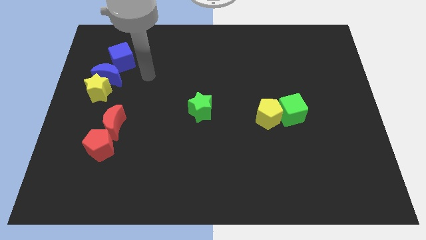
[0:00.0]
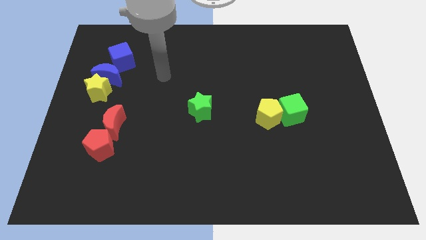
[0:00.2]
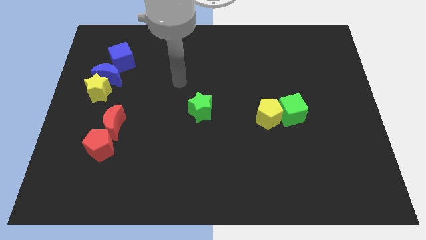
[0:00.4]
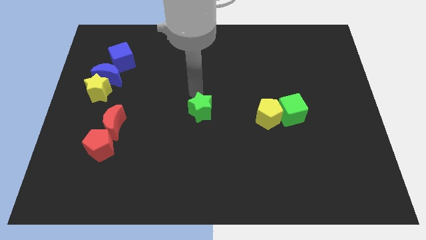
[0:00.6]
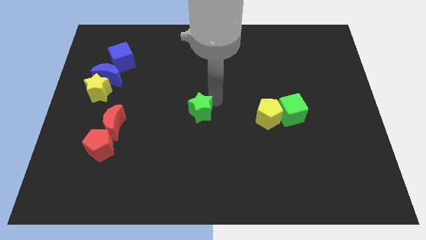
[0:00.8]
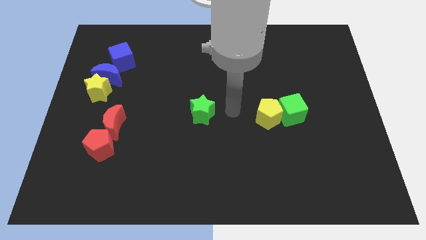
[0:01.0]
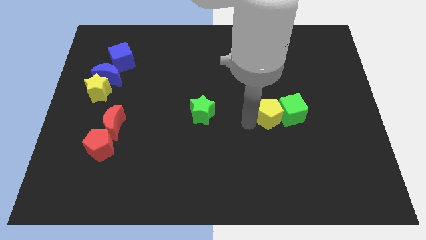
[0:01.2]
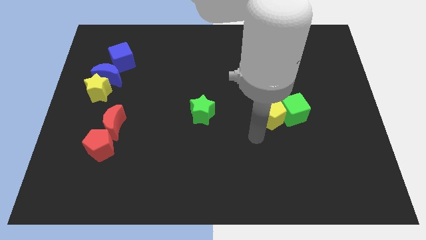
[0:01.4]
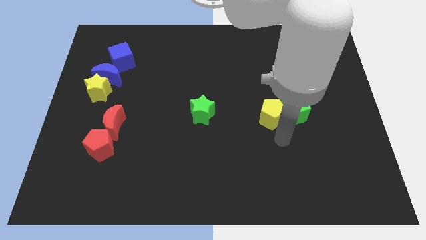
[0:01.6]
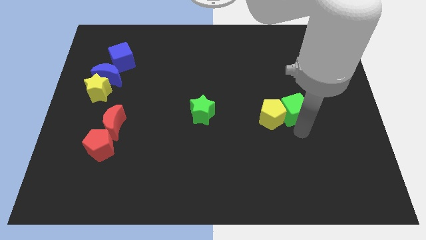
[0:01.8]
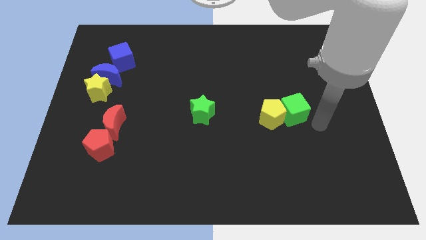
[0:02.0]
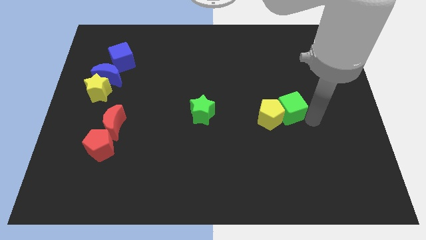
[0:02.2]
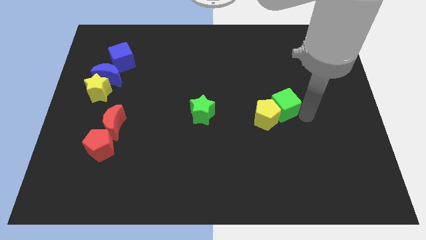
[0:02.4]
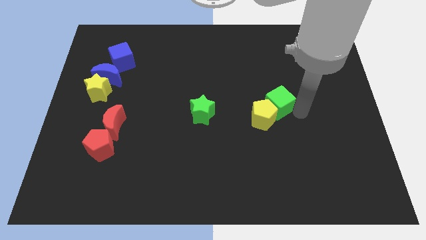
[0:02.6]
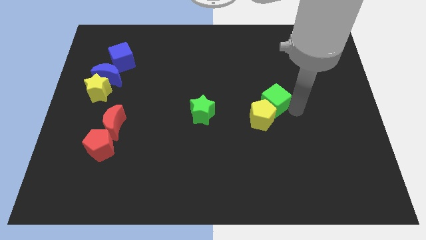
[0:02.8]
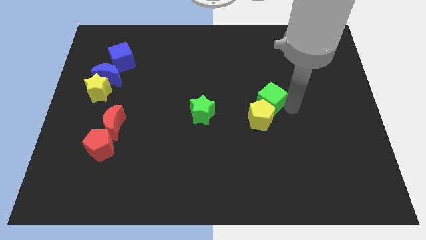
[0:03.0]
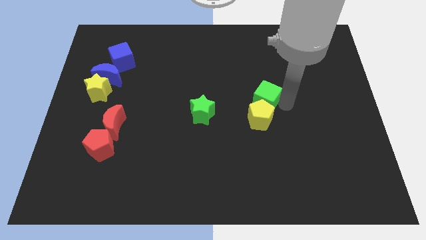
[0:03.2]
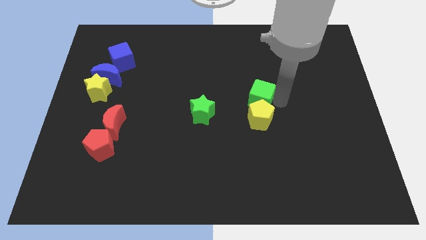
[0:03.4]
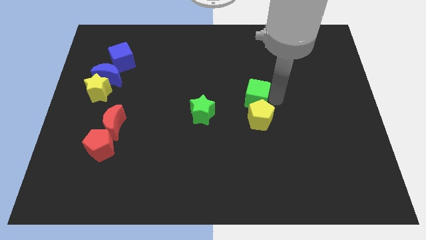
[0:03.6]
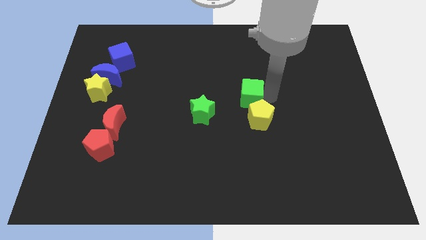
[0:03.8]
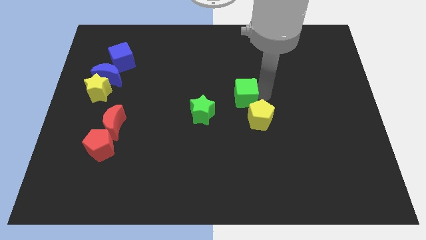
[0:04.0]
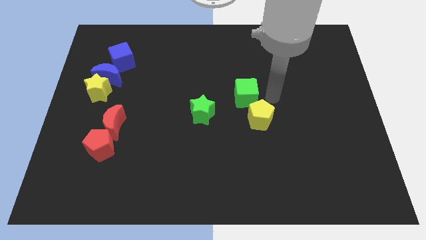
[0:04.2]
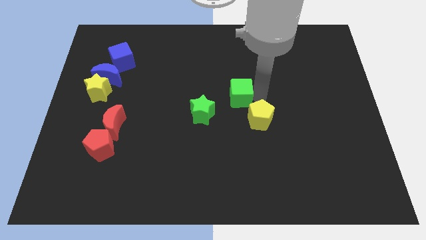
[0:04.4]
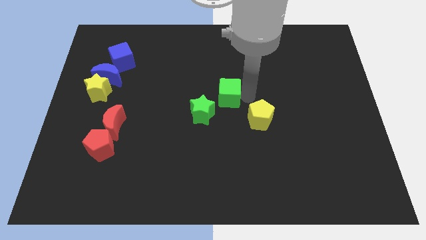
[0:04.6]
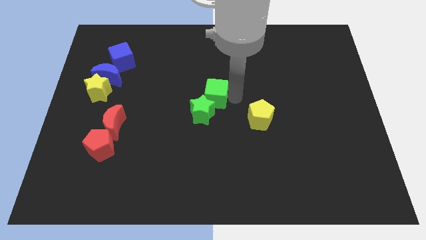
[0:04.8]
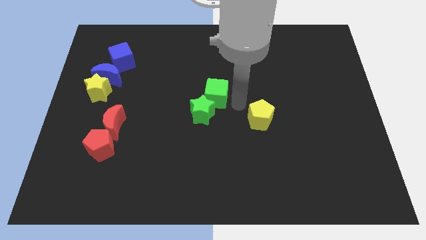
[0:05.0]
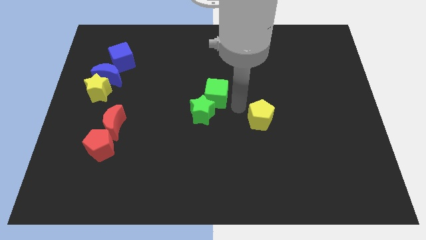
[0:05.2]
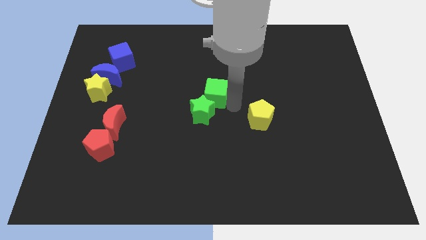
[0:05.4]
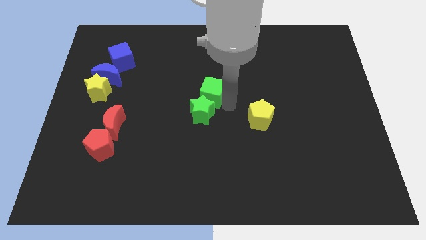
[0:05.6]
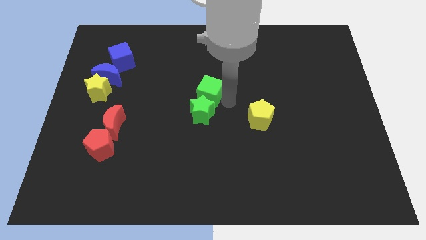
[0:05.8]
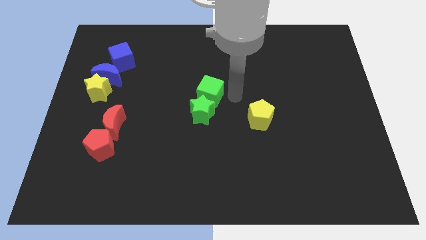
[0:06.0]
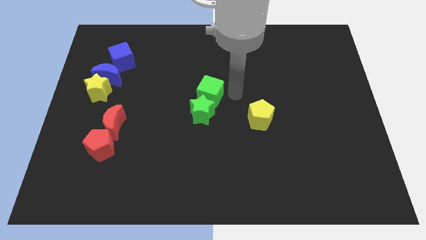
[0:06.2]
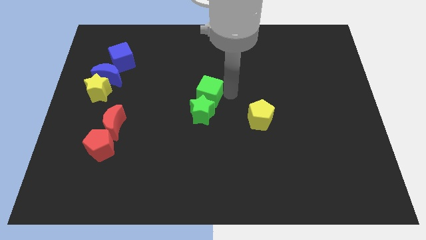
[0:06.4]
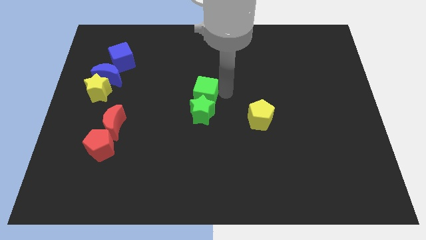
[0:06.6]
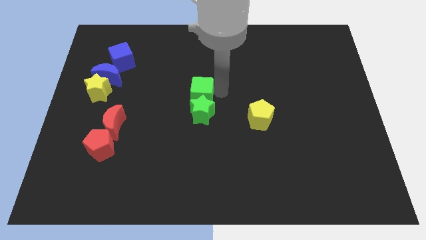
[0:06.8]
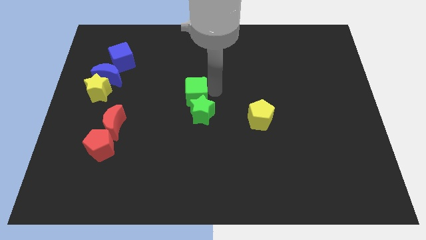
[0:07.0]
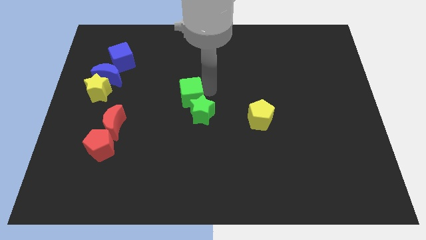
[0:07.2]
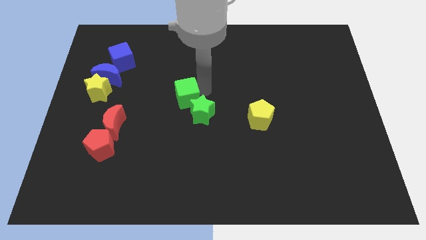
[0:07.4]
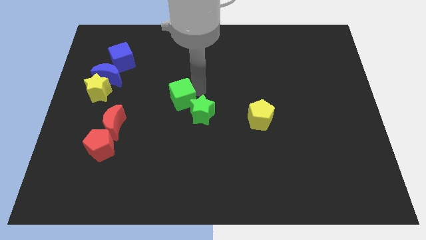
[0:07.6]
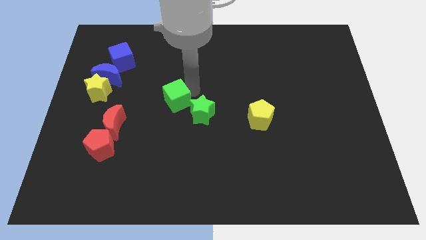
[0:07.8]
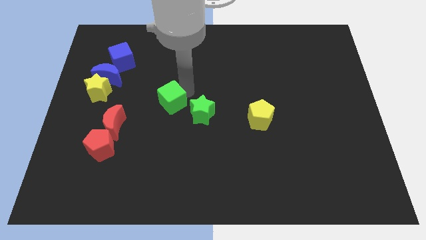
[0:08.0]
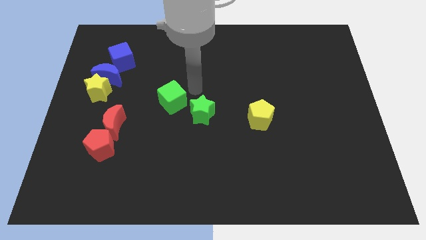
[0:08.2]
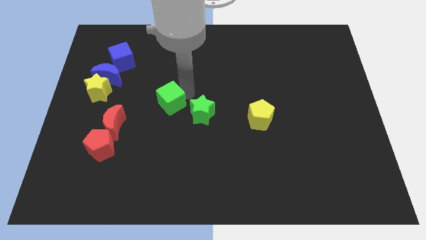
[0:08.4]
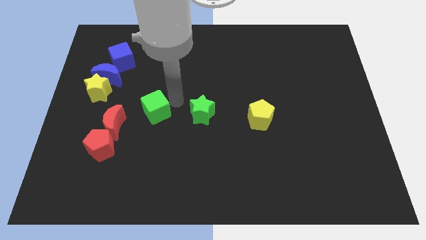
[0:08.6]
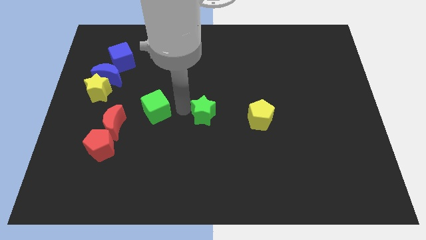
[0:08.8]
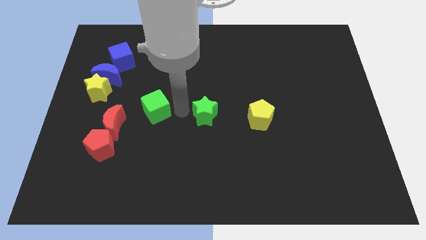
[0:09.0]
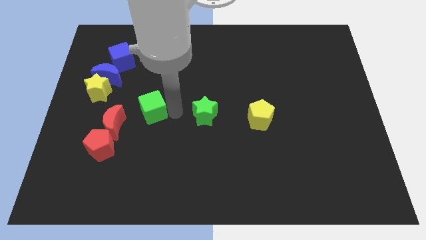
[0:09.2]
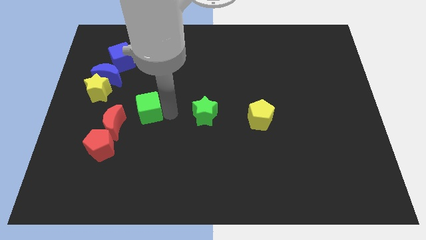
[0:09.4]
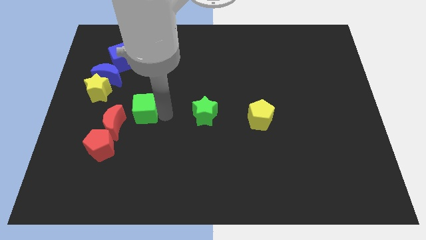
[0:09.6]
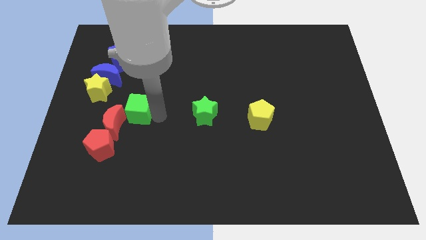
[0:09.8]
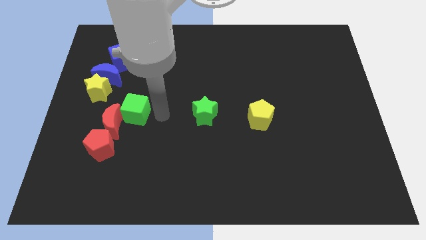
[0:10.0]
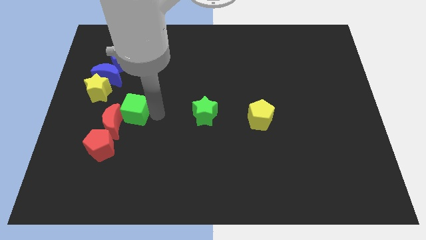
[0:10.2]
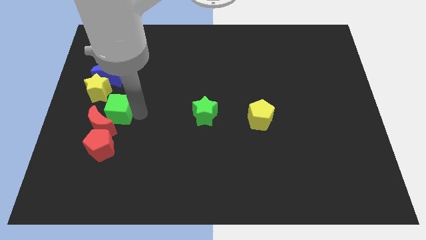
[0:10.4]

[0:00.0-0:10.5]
slide the green cube below the blue moon

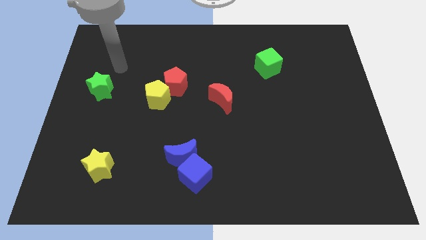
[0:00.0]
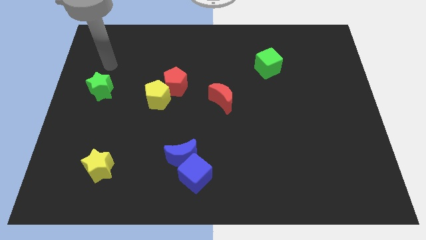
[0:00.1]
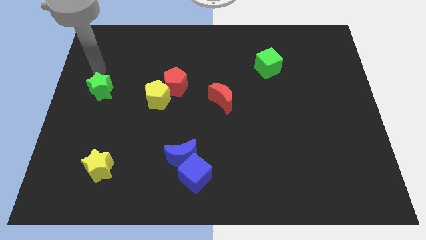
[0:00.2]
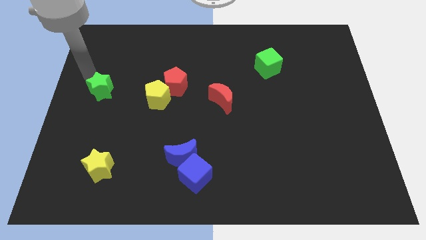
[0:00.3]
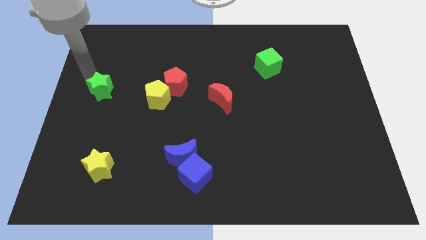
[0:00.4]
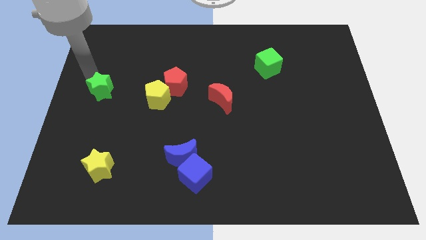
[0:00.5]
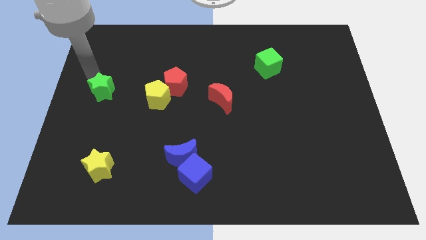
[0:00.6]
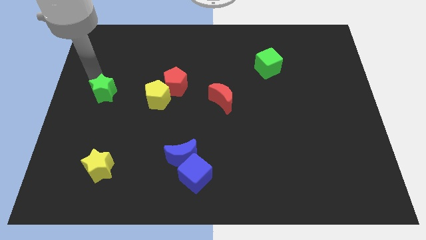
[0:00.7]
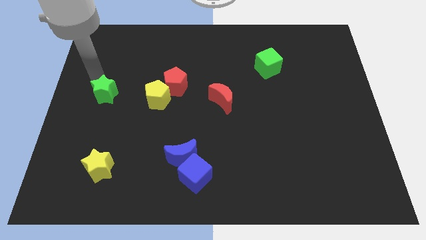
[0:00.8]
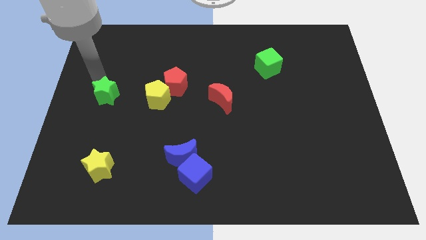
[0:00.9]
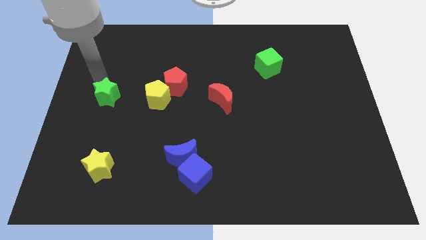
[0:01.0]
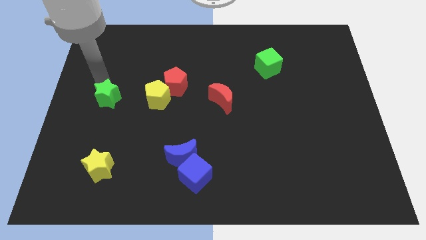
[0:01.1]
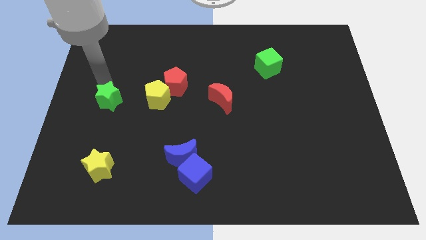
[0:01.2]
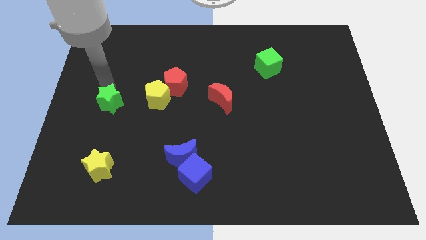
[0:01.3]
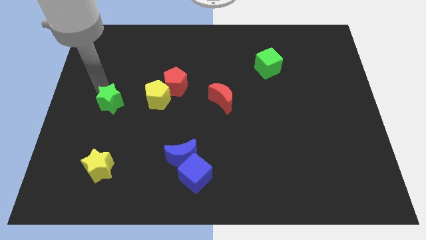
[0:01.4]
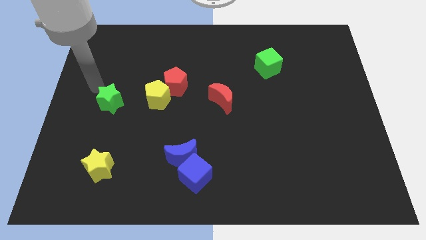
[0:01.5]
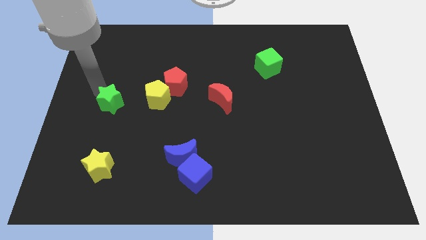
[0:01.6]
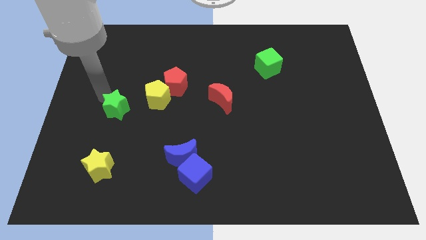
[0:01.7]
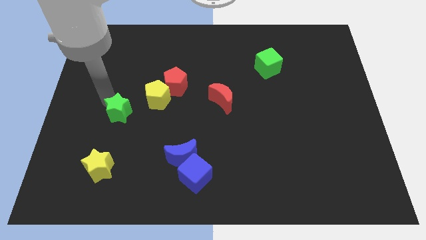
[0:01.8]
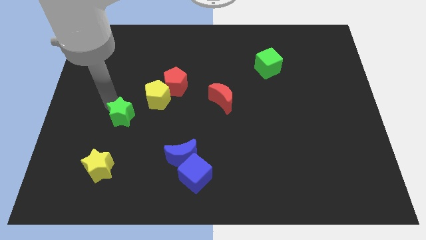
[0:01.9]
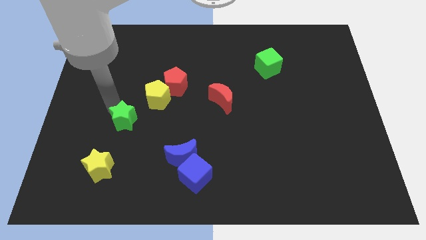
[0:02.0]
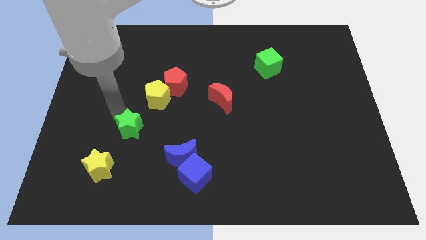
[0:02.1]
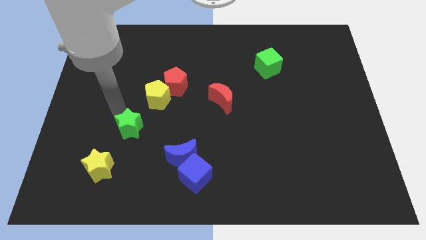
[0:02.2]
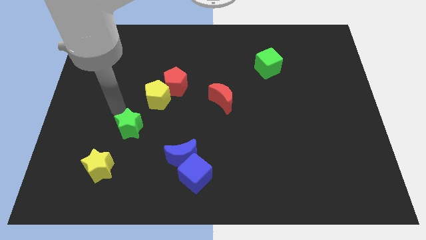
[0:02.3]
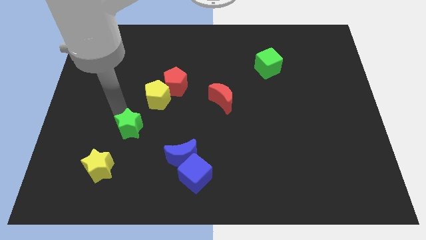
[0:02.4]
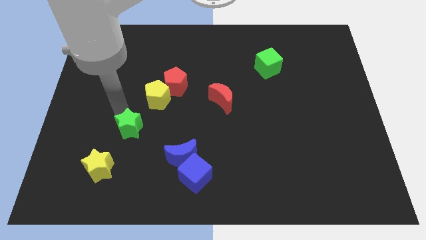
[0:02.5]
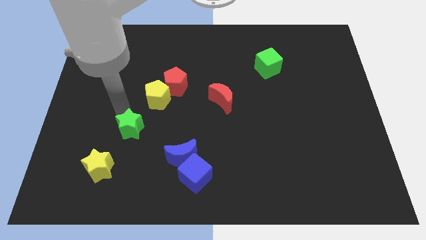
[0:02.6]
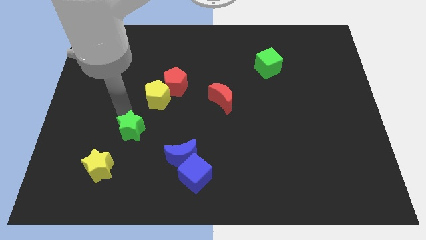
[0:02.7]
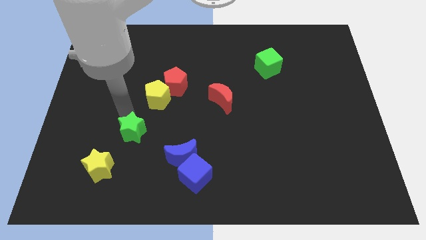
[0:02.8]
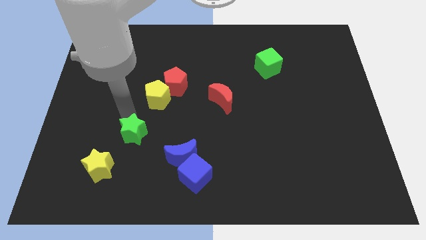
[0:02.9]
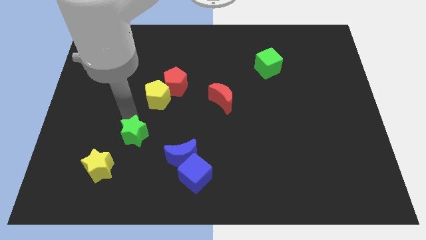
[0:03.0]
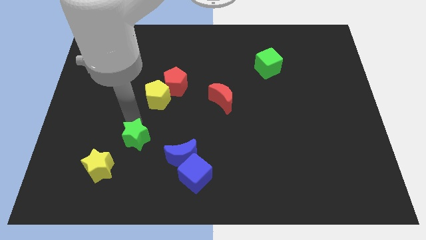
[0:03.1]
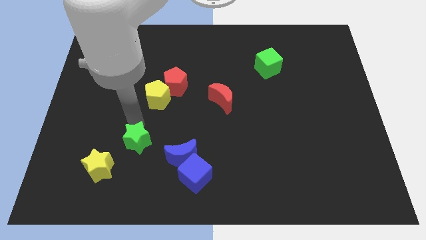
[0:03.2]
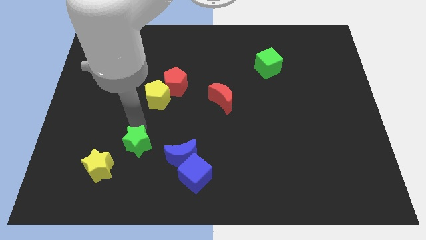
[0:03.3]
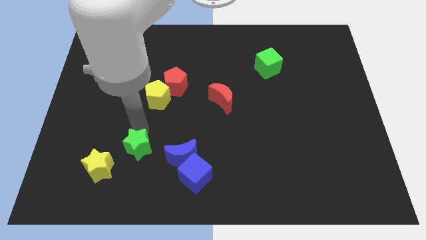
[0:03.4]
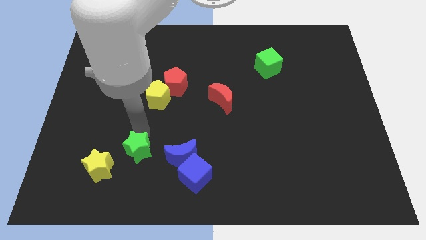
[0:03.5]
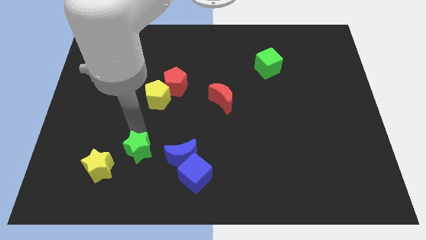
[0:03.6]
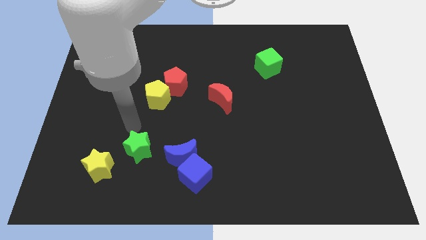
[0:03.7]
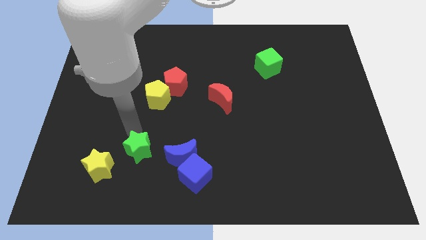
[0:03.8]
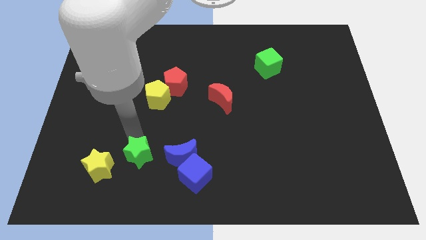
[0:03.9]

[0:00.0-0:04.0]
push the green star to the left of the blue cube
